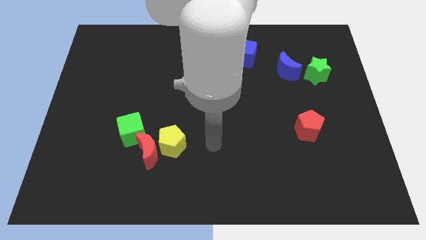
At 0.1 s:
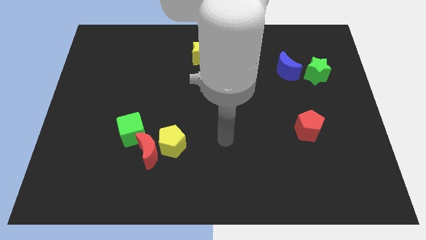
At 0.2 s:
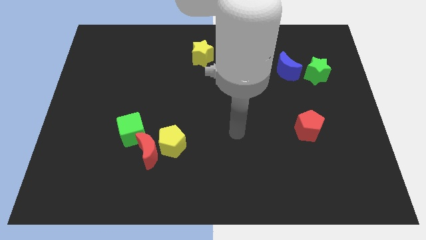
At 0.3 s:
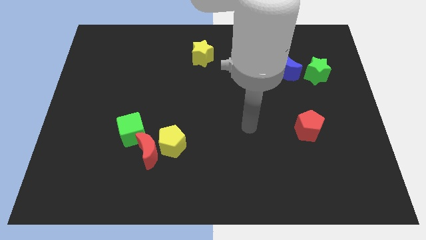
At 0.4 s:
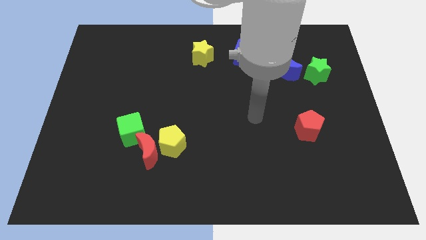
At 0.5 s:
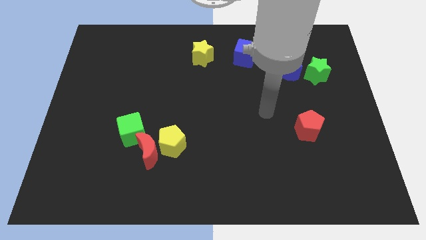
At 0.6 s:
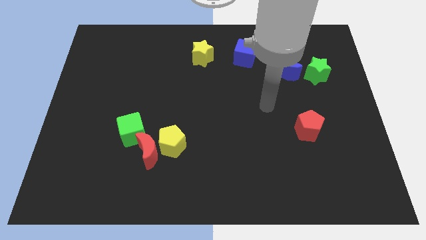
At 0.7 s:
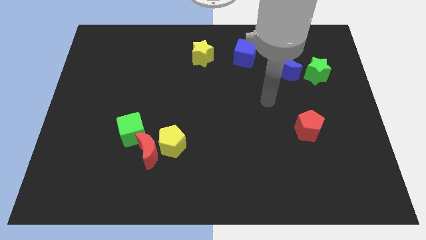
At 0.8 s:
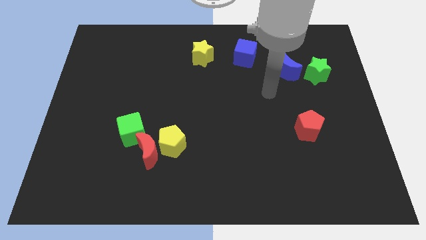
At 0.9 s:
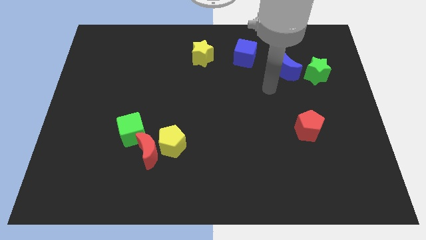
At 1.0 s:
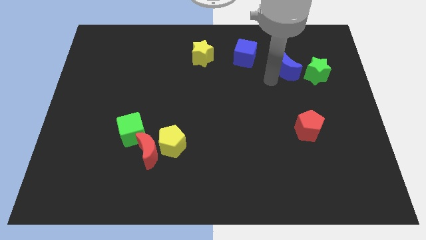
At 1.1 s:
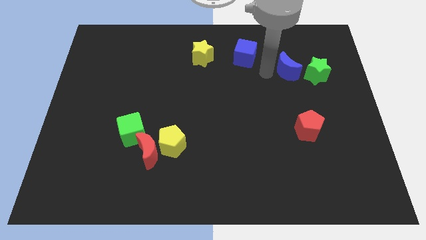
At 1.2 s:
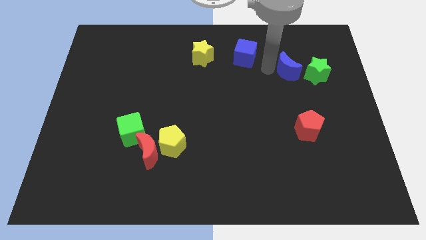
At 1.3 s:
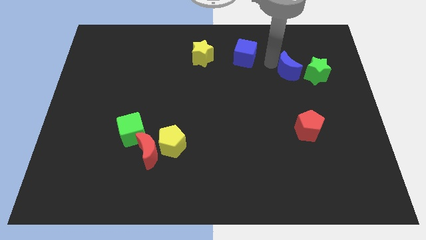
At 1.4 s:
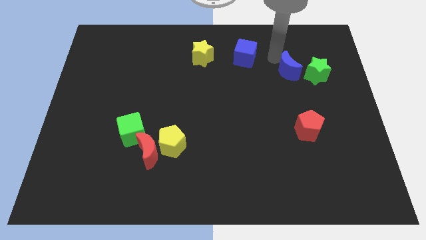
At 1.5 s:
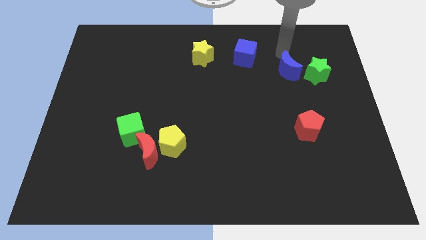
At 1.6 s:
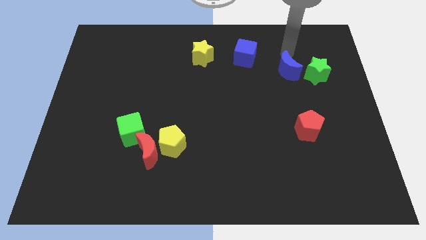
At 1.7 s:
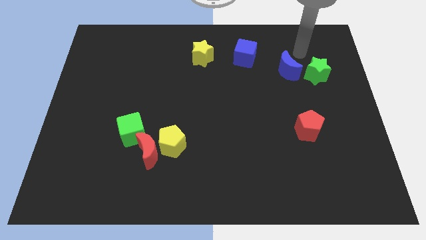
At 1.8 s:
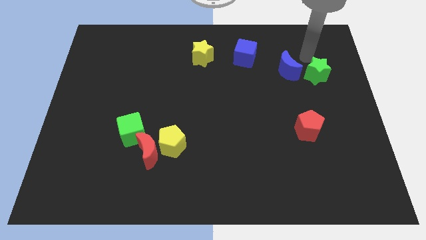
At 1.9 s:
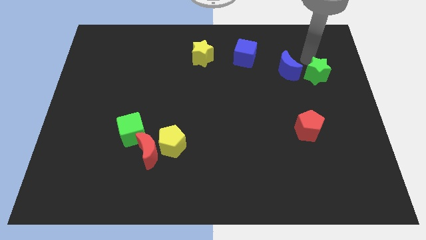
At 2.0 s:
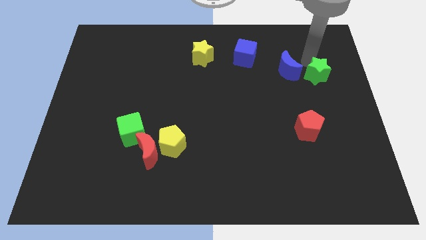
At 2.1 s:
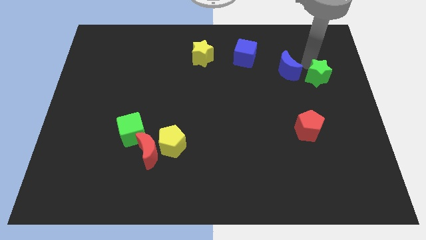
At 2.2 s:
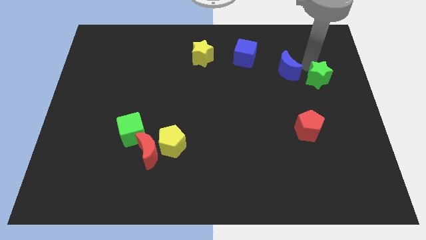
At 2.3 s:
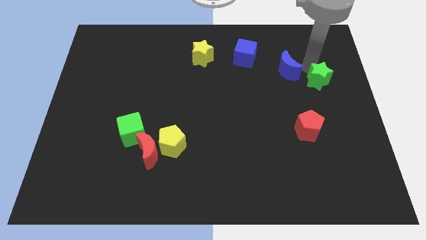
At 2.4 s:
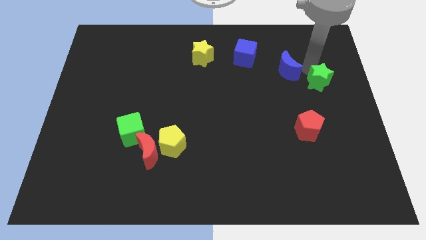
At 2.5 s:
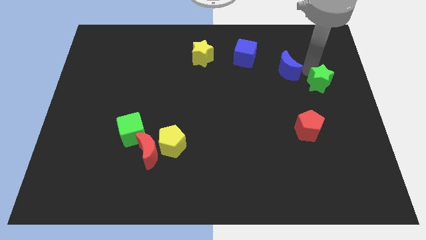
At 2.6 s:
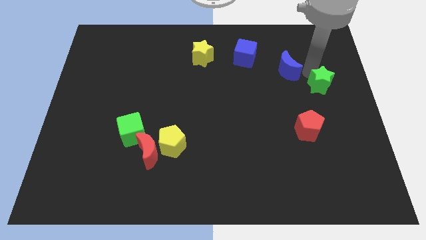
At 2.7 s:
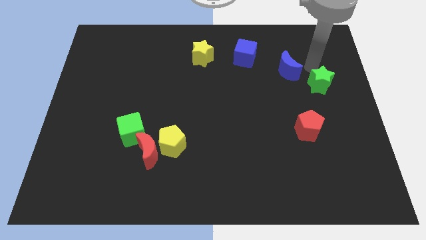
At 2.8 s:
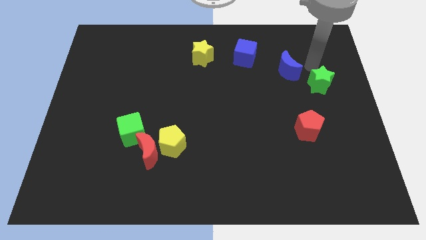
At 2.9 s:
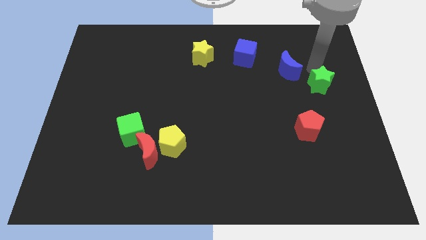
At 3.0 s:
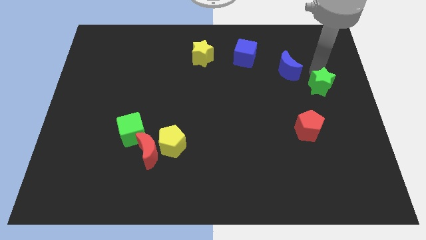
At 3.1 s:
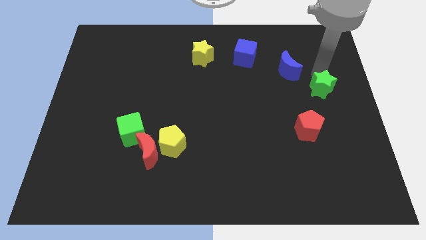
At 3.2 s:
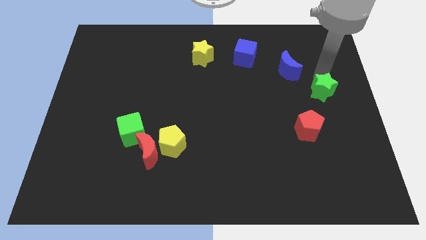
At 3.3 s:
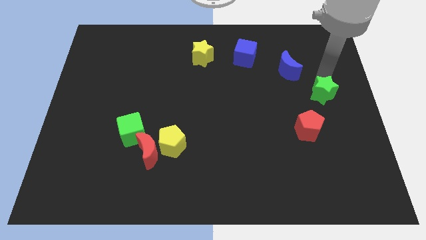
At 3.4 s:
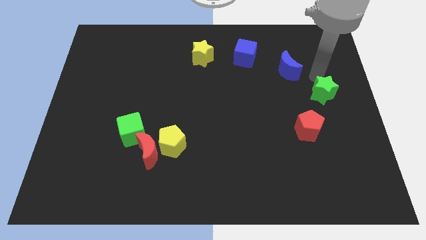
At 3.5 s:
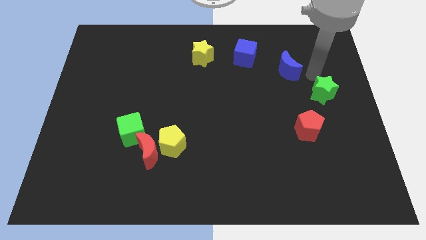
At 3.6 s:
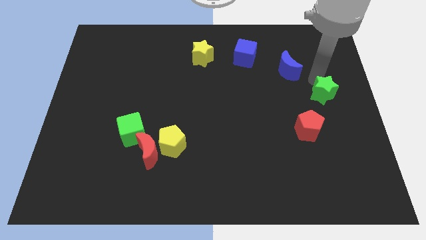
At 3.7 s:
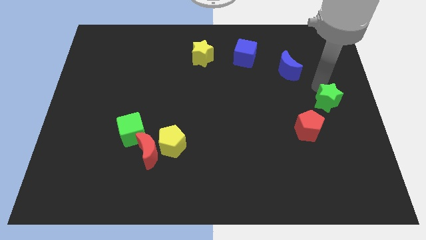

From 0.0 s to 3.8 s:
slightly push the green star downwards

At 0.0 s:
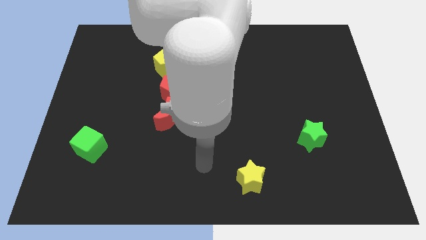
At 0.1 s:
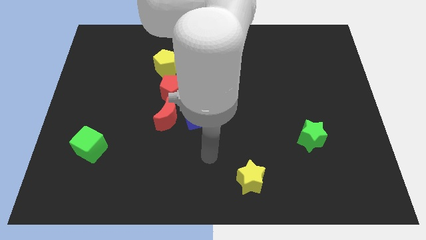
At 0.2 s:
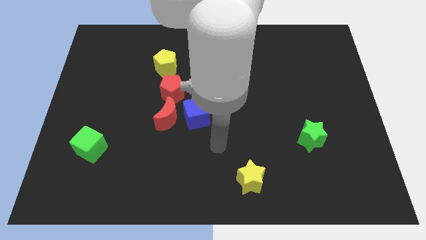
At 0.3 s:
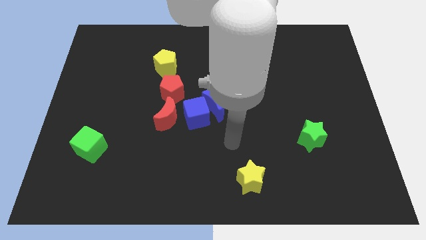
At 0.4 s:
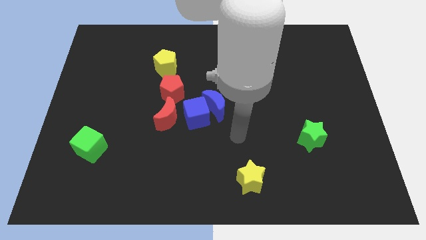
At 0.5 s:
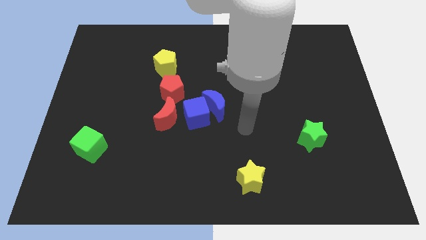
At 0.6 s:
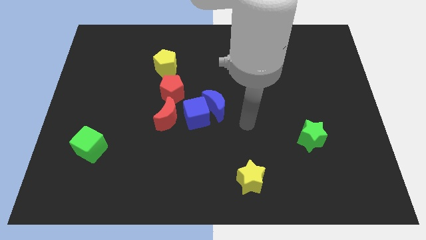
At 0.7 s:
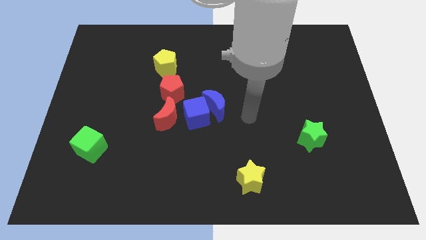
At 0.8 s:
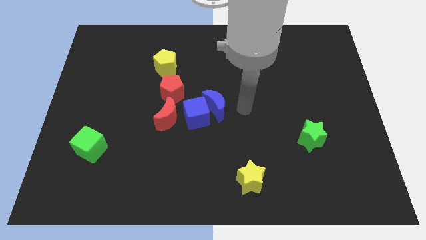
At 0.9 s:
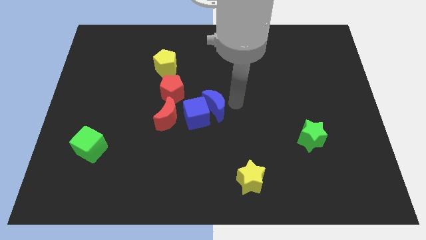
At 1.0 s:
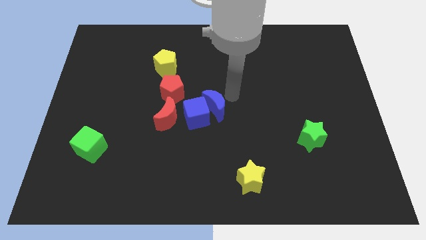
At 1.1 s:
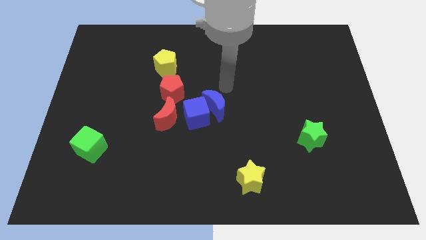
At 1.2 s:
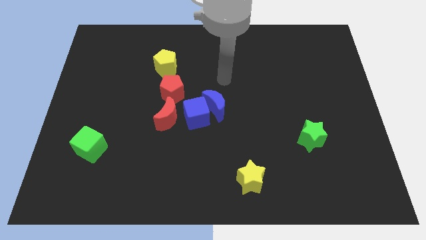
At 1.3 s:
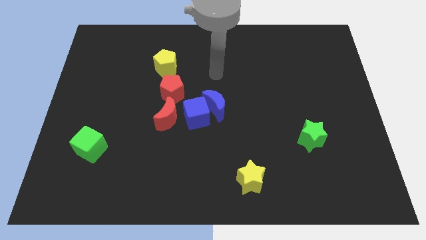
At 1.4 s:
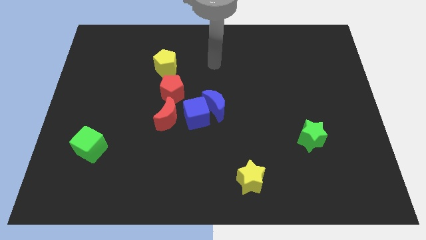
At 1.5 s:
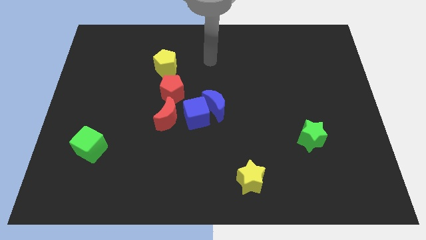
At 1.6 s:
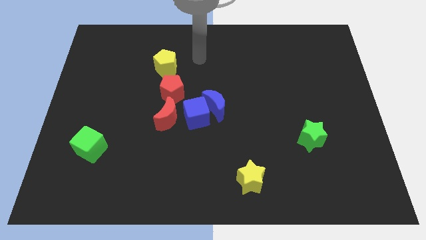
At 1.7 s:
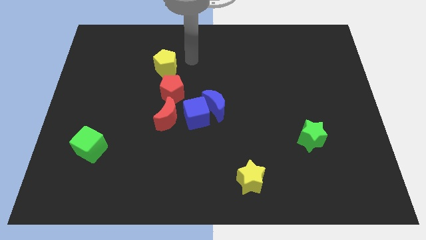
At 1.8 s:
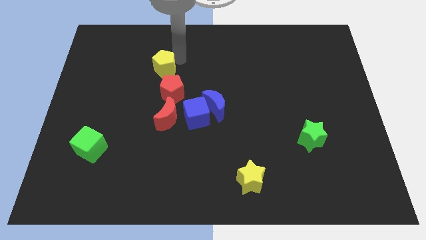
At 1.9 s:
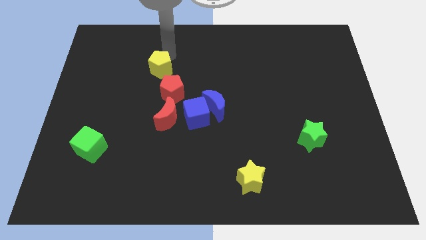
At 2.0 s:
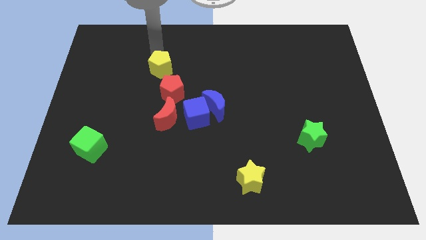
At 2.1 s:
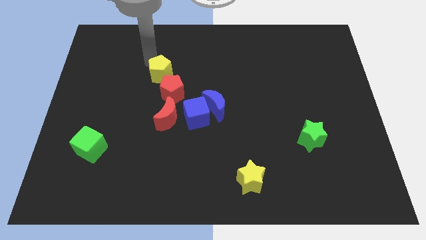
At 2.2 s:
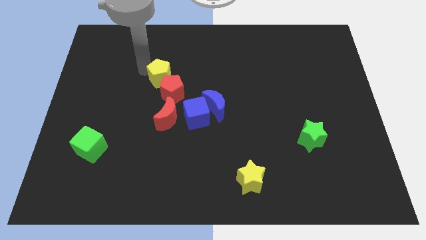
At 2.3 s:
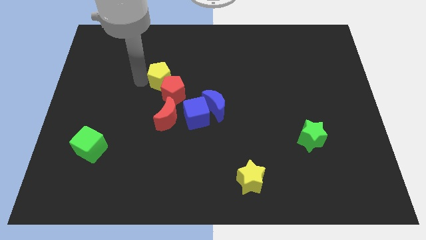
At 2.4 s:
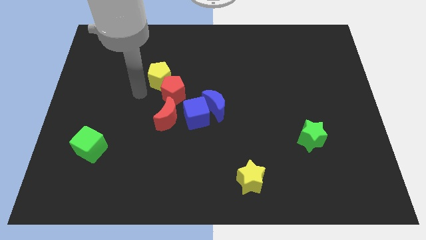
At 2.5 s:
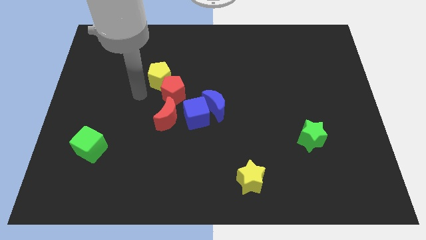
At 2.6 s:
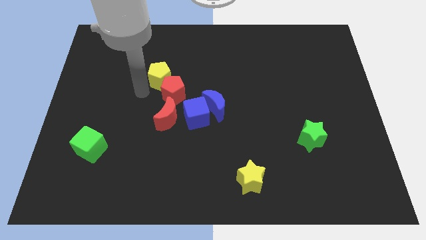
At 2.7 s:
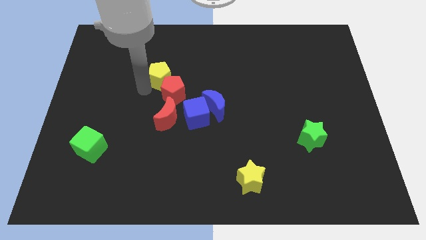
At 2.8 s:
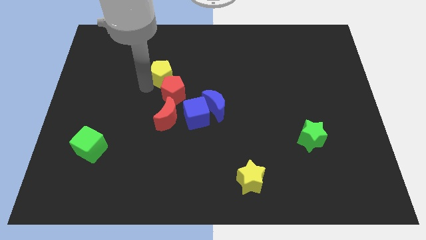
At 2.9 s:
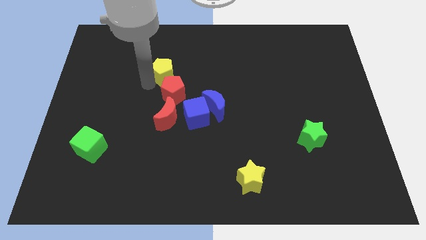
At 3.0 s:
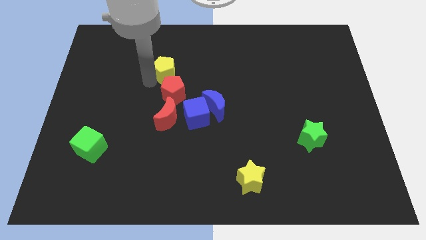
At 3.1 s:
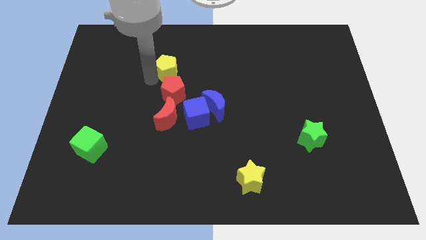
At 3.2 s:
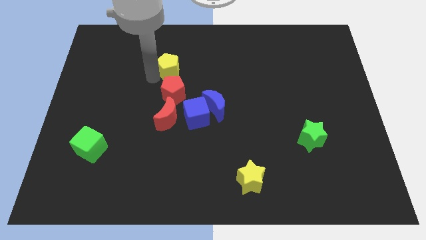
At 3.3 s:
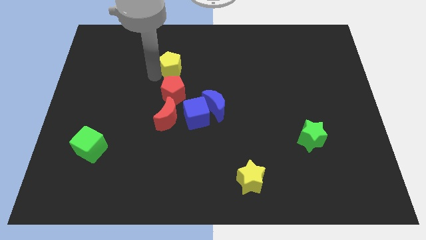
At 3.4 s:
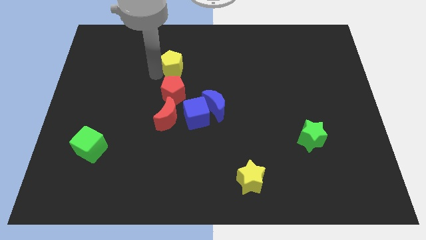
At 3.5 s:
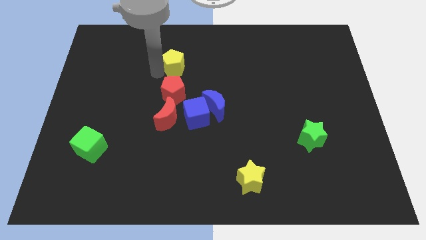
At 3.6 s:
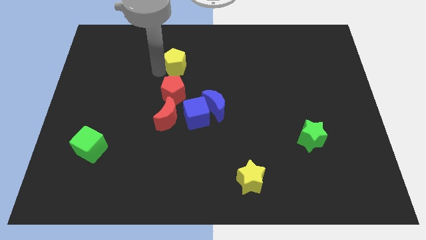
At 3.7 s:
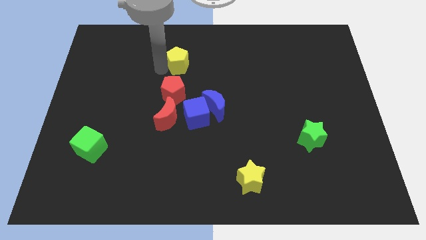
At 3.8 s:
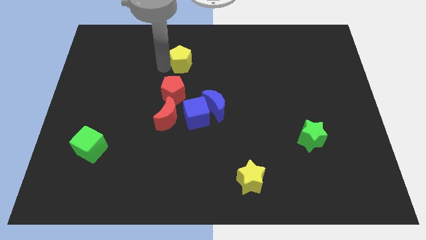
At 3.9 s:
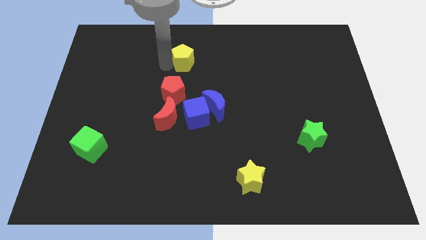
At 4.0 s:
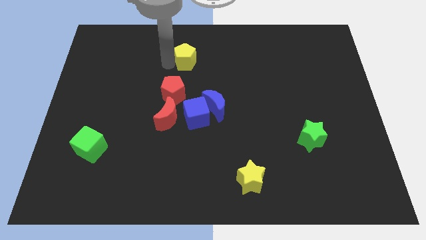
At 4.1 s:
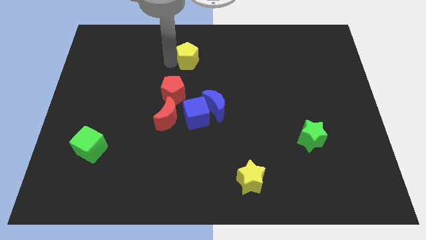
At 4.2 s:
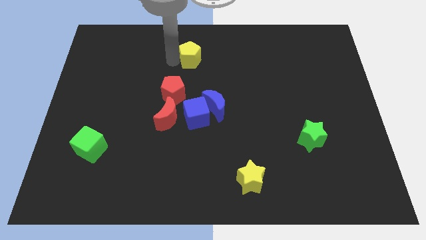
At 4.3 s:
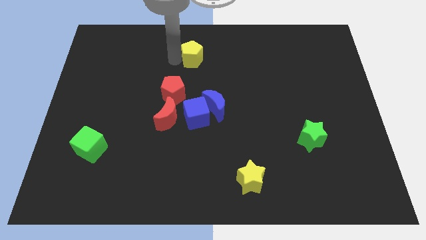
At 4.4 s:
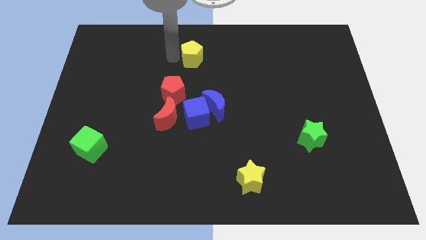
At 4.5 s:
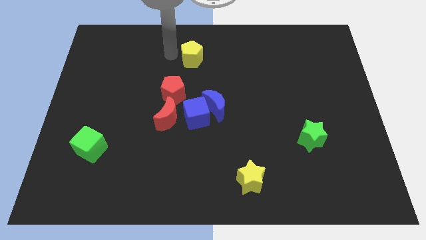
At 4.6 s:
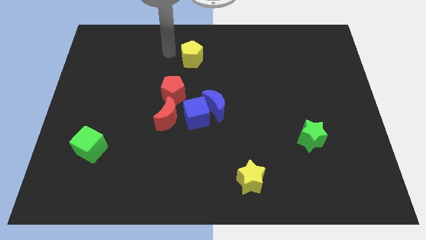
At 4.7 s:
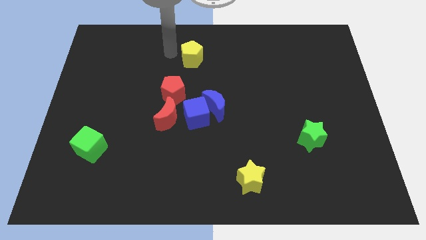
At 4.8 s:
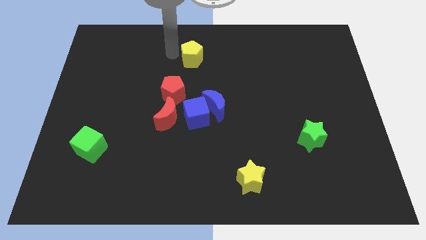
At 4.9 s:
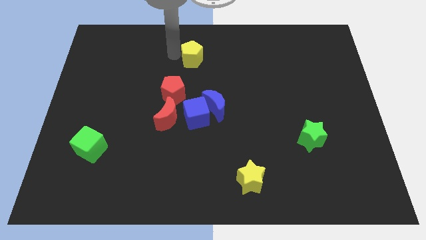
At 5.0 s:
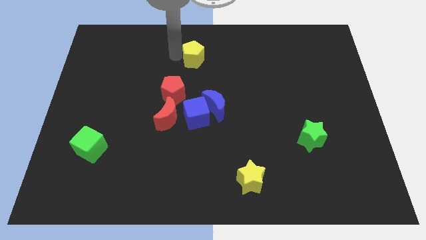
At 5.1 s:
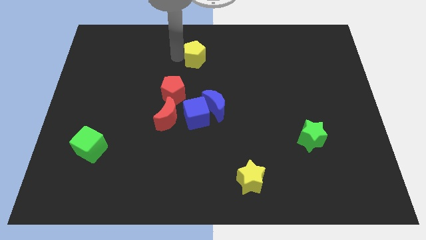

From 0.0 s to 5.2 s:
move the yellow pentagon a bit to the right
